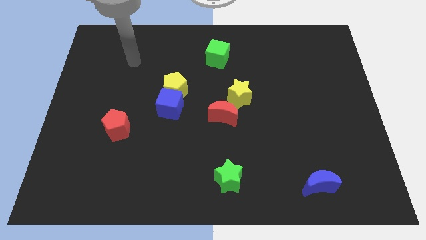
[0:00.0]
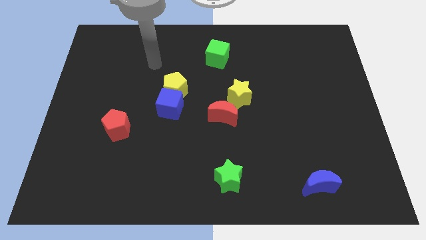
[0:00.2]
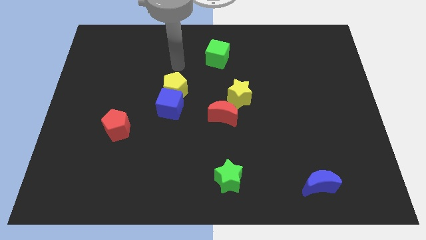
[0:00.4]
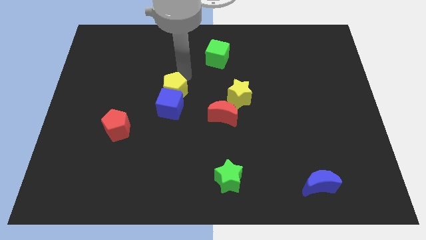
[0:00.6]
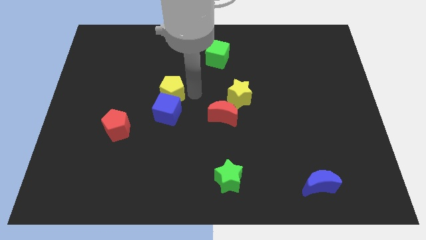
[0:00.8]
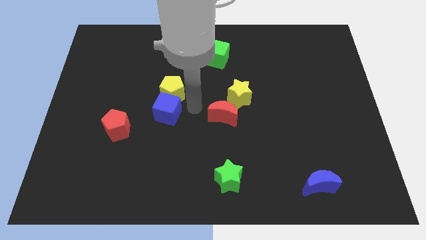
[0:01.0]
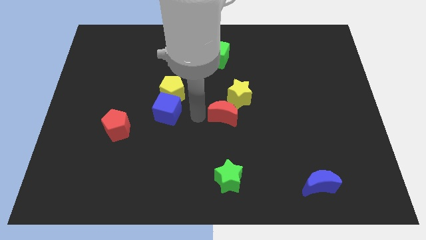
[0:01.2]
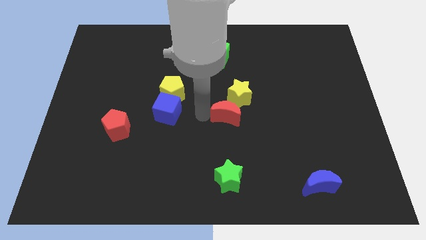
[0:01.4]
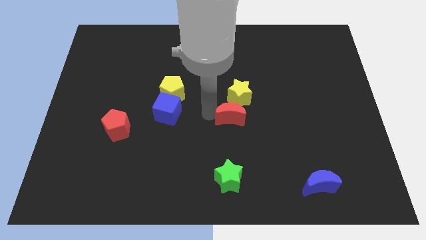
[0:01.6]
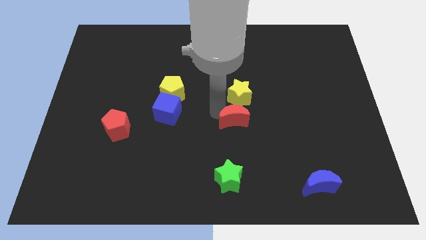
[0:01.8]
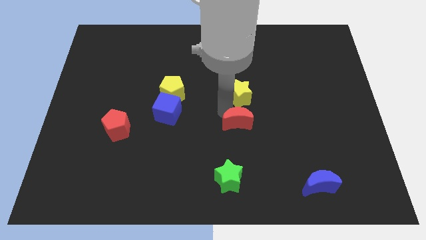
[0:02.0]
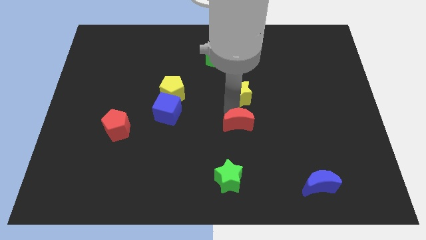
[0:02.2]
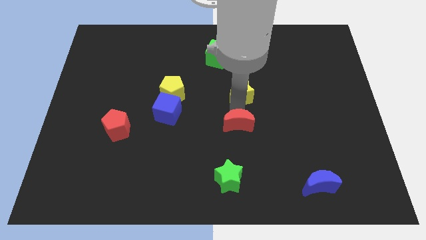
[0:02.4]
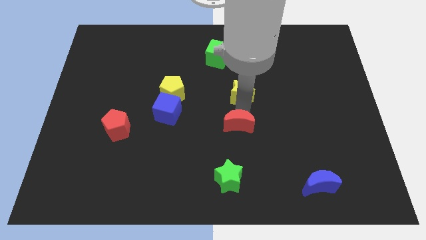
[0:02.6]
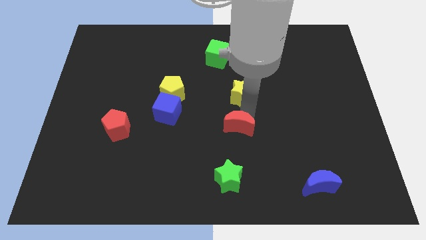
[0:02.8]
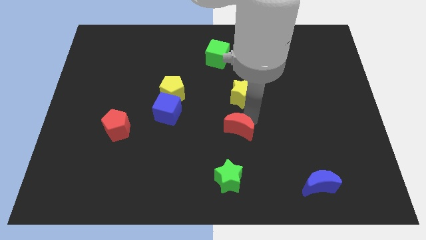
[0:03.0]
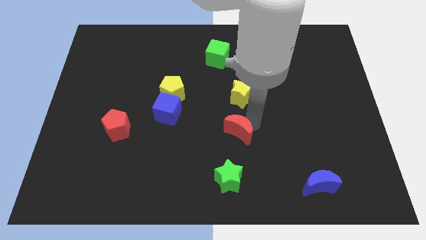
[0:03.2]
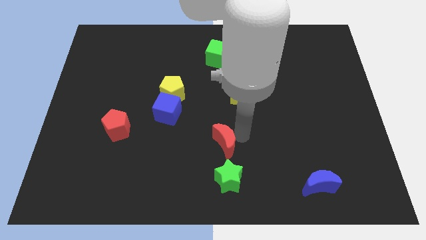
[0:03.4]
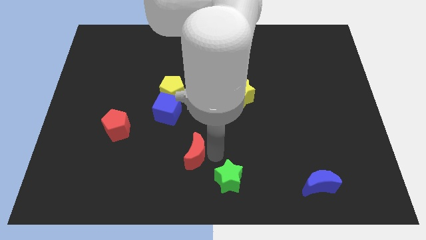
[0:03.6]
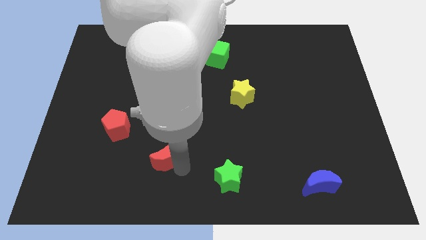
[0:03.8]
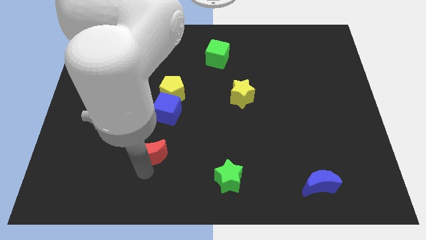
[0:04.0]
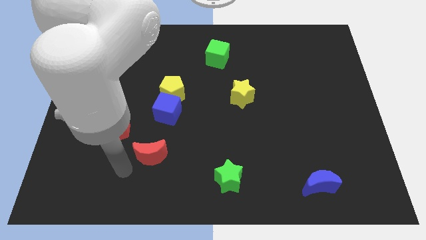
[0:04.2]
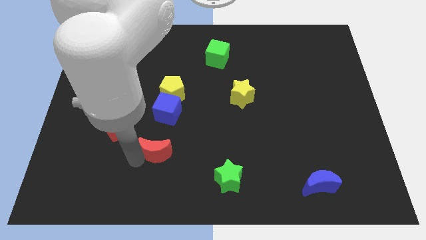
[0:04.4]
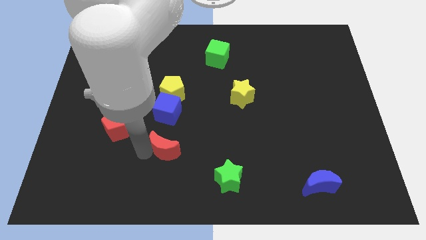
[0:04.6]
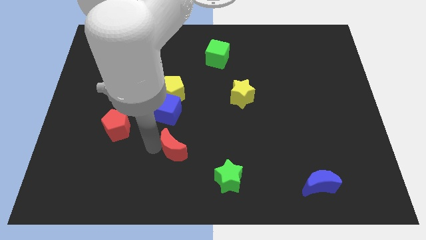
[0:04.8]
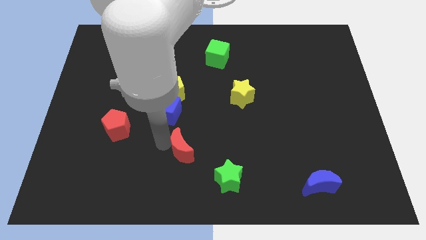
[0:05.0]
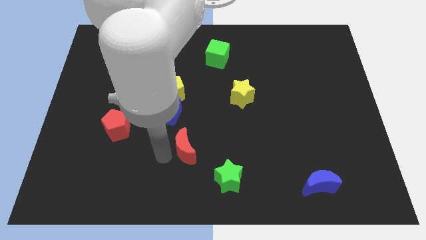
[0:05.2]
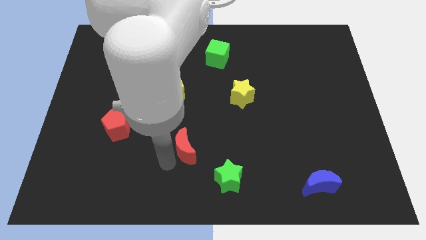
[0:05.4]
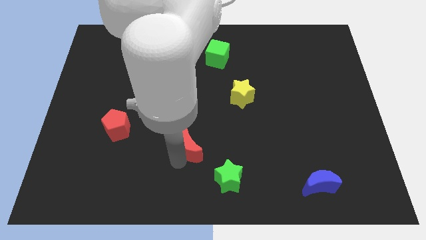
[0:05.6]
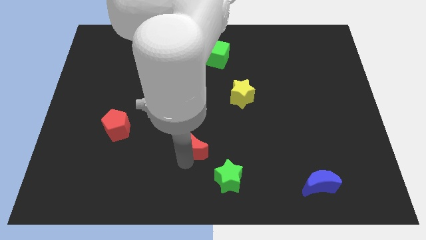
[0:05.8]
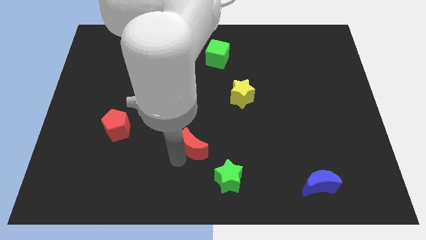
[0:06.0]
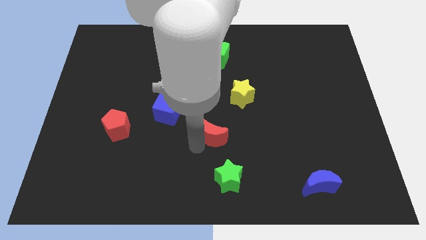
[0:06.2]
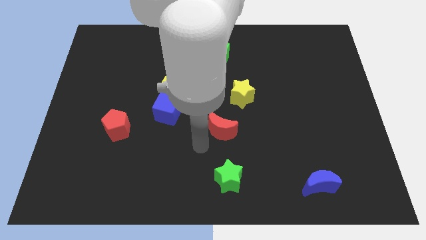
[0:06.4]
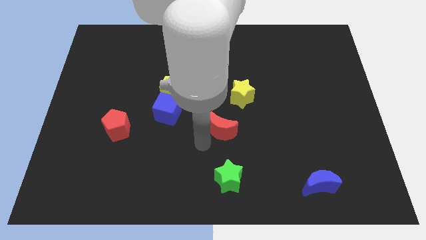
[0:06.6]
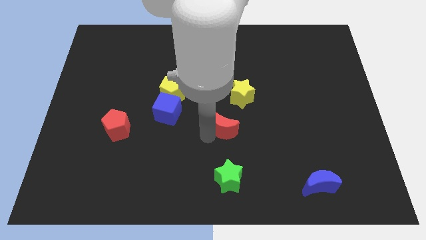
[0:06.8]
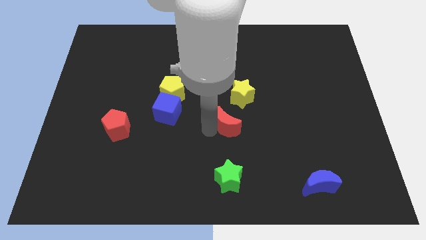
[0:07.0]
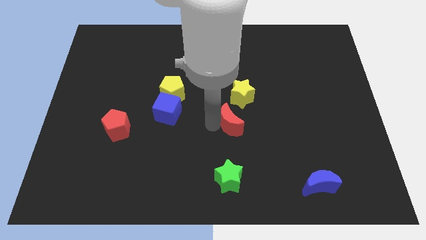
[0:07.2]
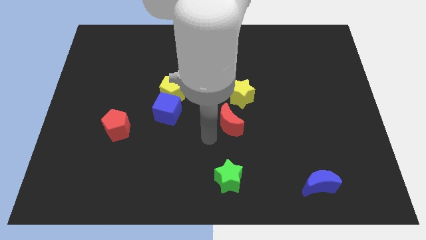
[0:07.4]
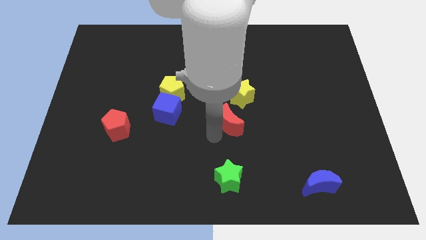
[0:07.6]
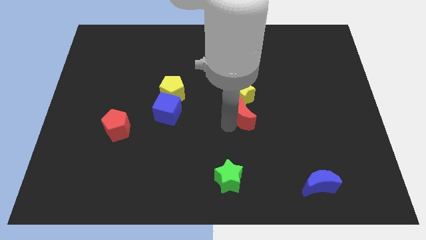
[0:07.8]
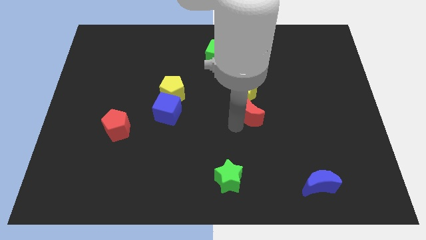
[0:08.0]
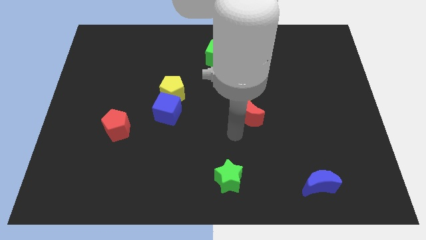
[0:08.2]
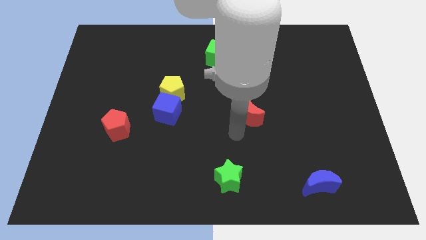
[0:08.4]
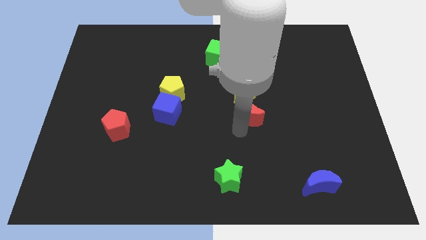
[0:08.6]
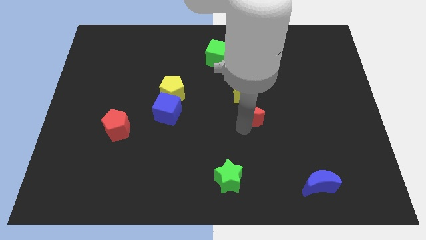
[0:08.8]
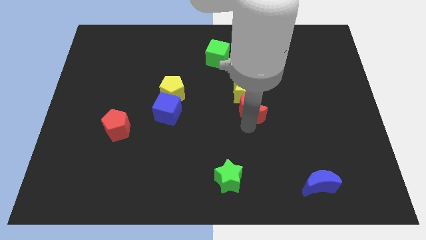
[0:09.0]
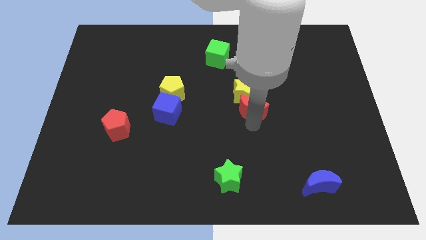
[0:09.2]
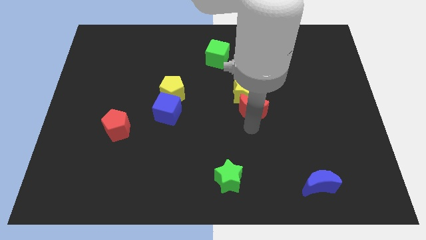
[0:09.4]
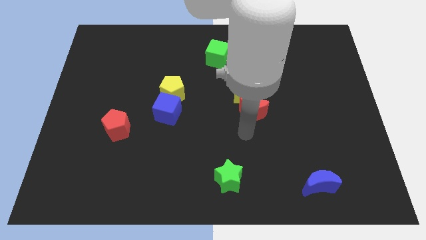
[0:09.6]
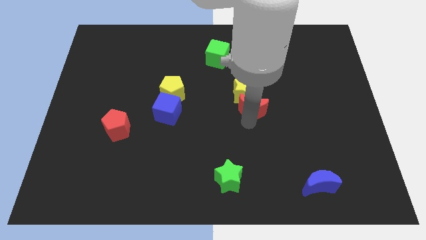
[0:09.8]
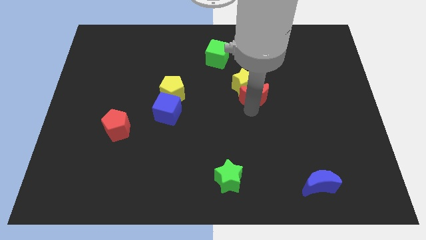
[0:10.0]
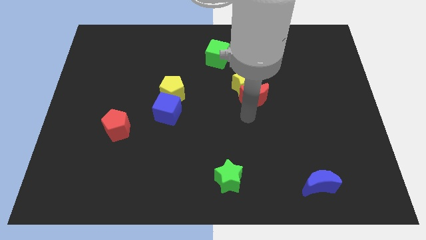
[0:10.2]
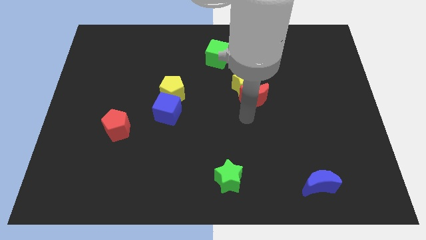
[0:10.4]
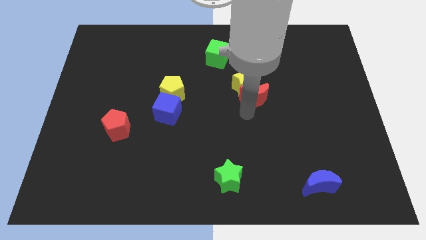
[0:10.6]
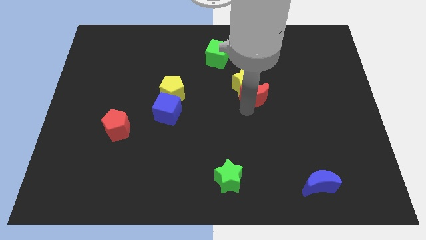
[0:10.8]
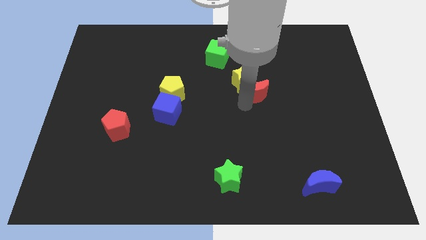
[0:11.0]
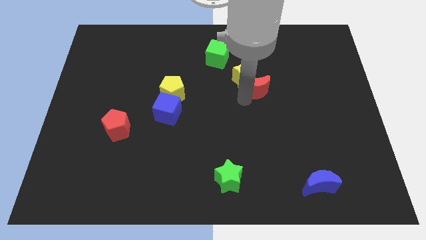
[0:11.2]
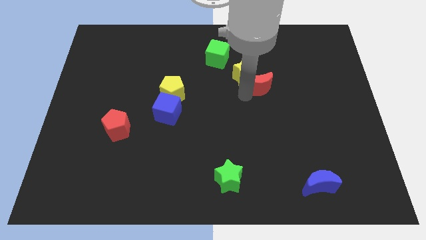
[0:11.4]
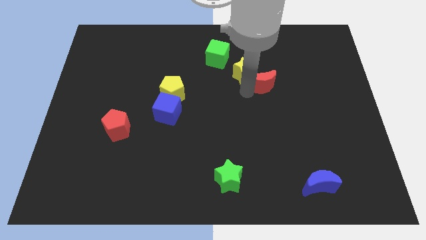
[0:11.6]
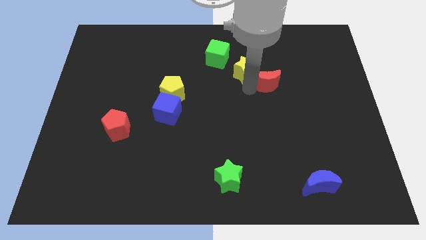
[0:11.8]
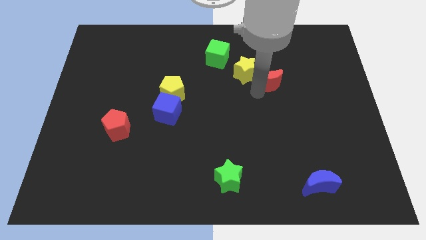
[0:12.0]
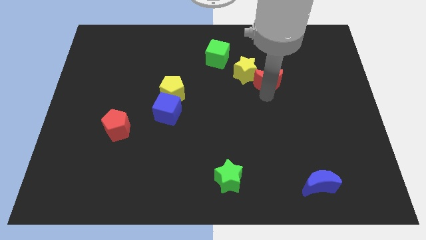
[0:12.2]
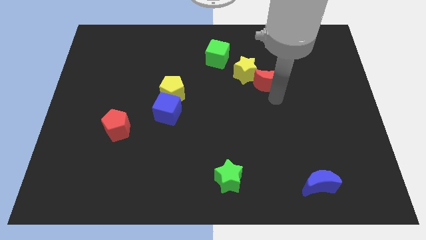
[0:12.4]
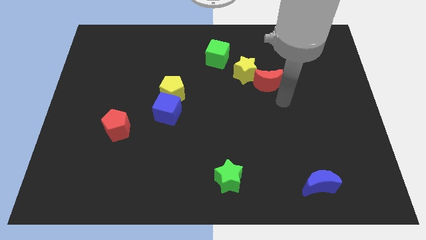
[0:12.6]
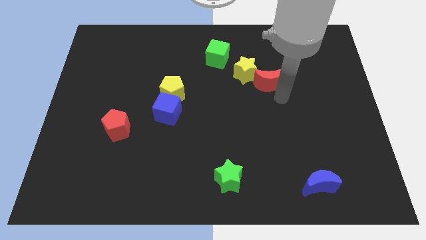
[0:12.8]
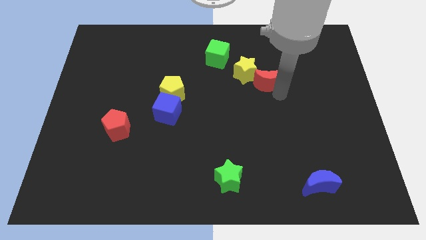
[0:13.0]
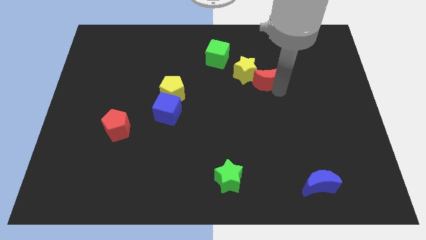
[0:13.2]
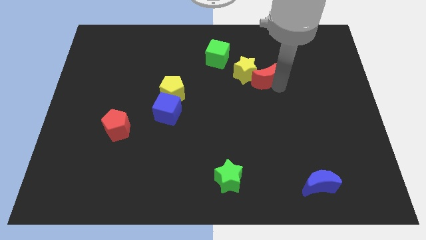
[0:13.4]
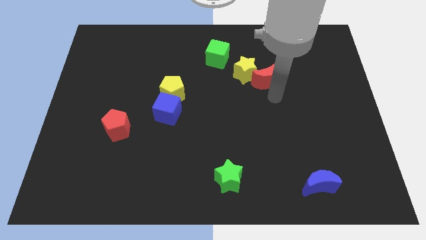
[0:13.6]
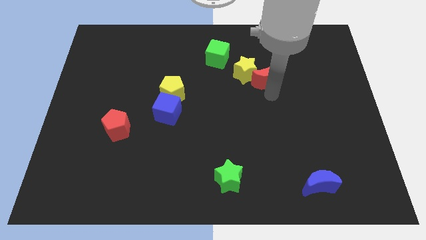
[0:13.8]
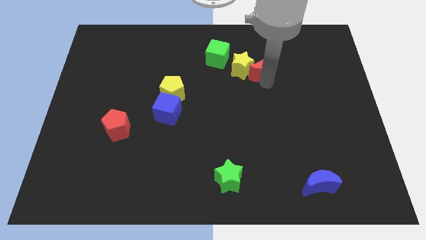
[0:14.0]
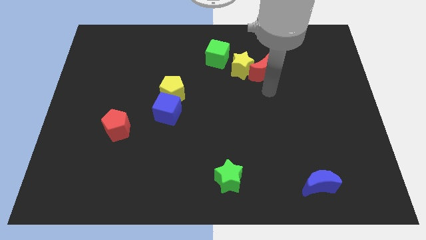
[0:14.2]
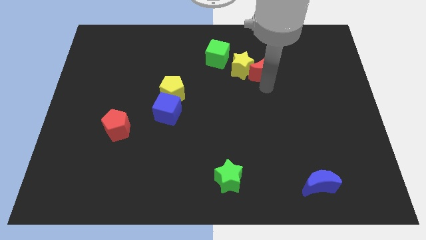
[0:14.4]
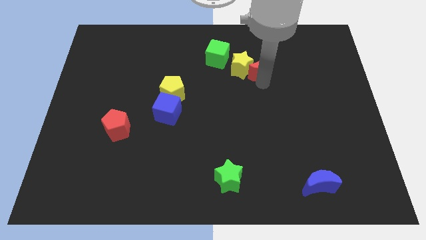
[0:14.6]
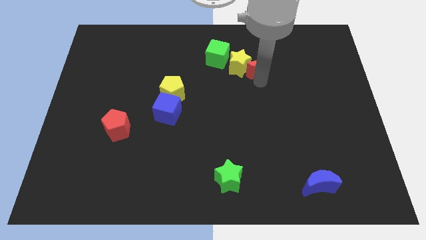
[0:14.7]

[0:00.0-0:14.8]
move the red moon to the right side of the green cube

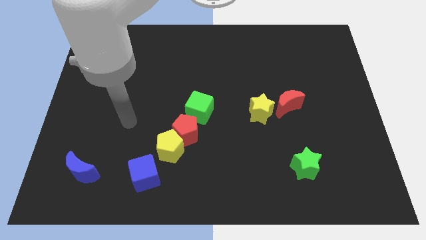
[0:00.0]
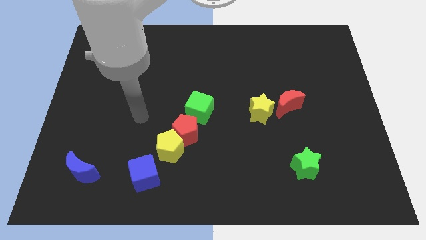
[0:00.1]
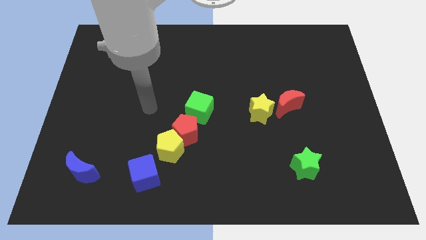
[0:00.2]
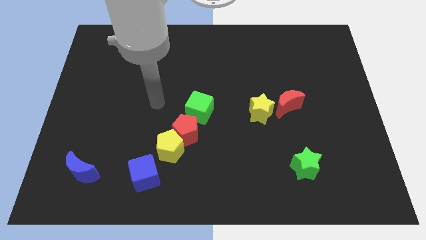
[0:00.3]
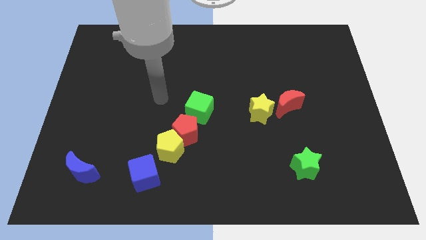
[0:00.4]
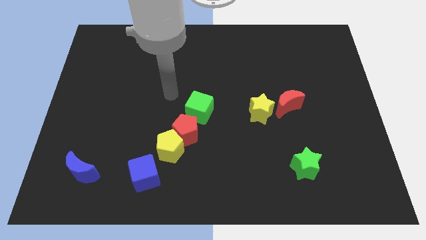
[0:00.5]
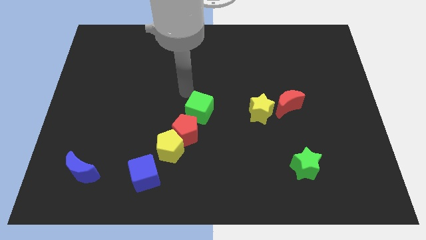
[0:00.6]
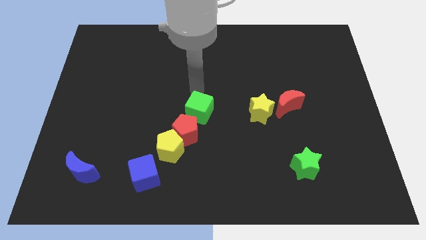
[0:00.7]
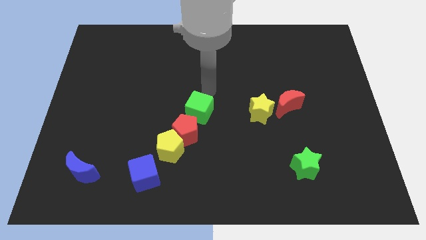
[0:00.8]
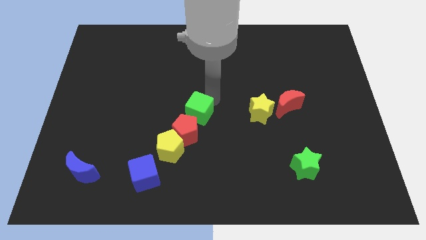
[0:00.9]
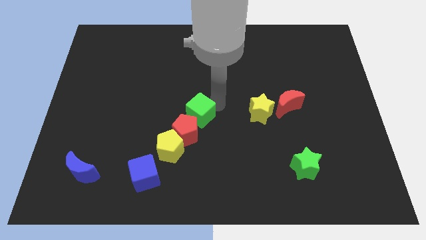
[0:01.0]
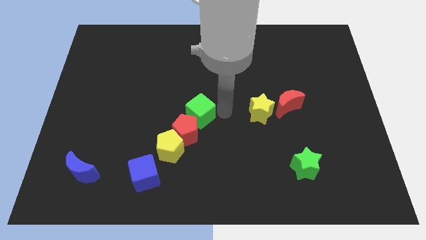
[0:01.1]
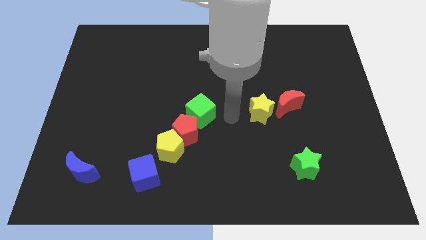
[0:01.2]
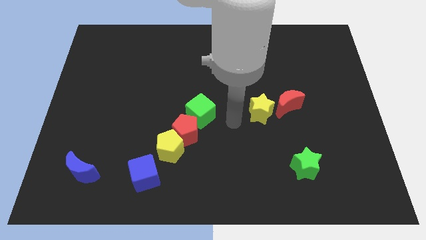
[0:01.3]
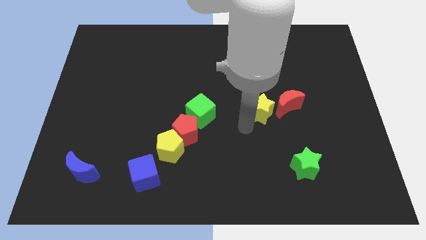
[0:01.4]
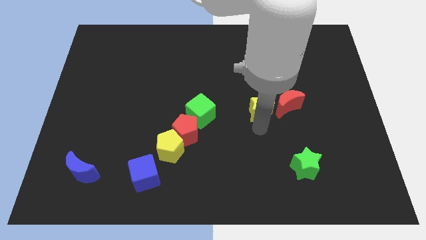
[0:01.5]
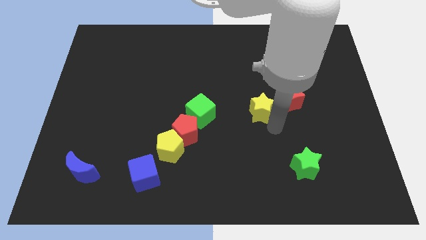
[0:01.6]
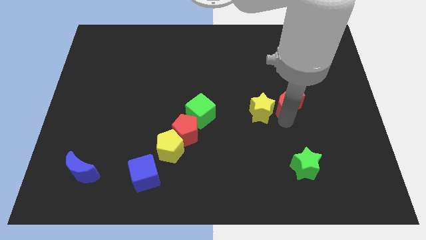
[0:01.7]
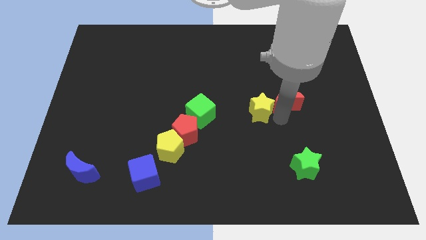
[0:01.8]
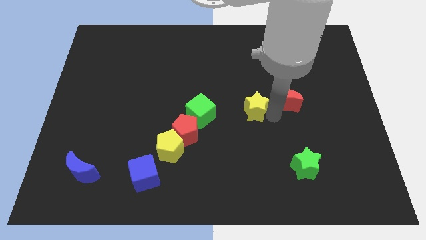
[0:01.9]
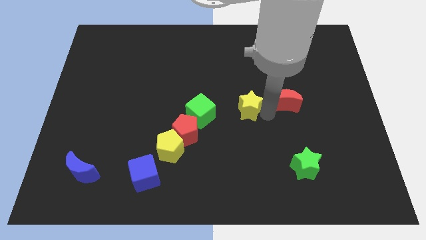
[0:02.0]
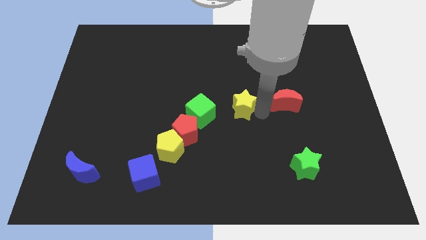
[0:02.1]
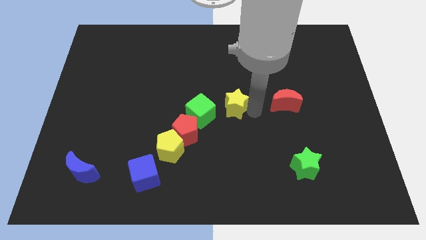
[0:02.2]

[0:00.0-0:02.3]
push the yellow star to the top right of the green cube
